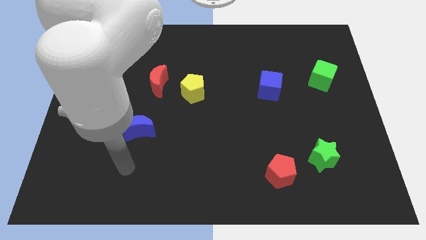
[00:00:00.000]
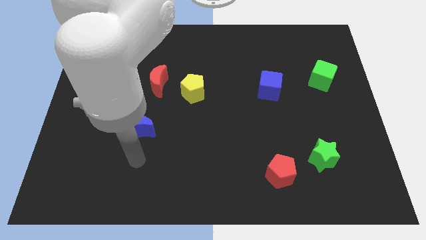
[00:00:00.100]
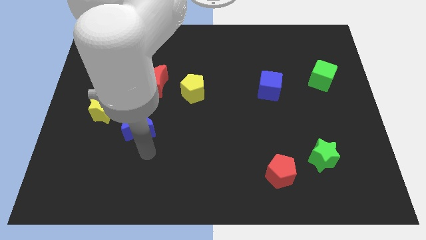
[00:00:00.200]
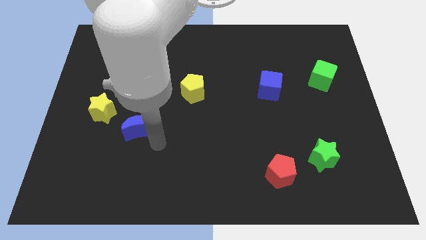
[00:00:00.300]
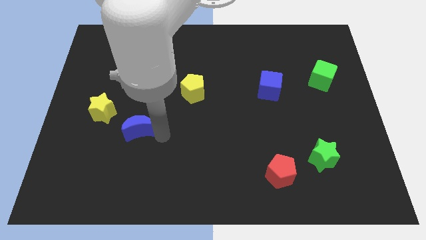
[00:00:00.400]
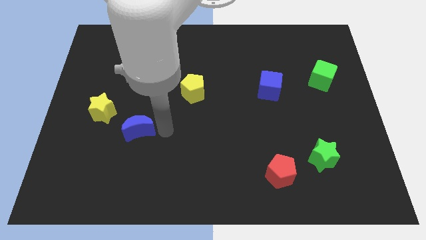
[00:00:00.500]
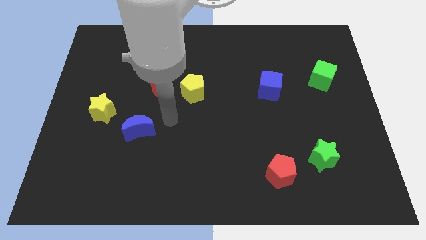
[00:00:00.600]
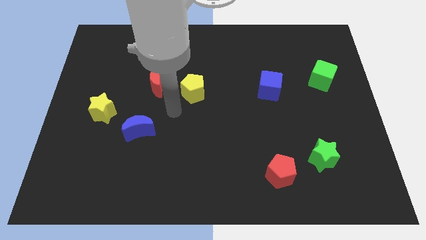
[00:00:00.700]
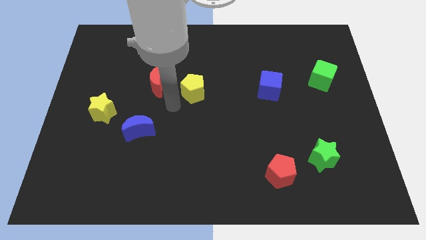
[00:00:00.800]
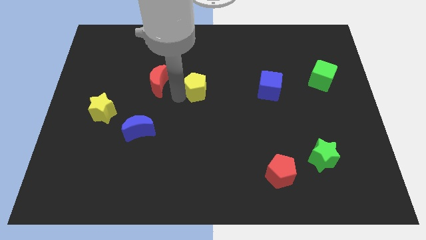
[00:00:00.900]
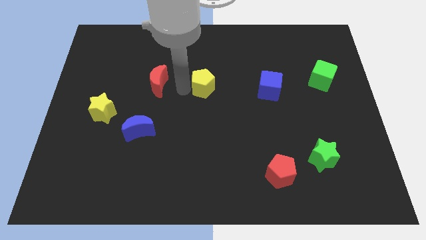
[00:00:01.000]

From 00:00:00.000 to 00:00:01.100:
move the red moon away from the yellow pentagon

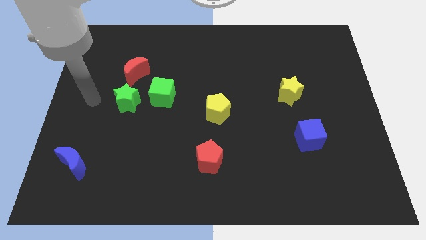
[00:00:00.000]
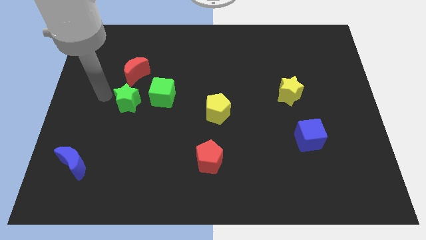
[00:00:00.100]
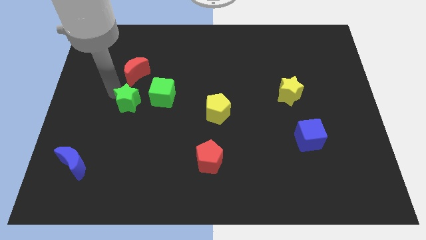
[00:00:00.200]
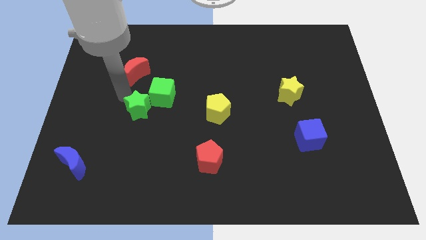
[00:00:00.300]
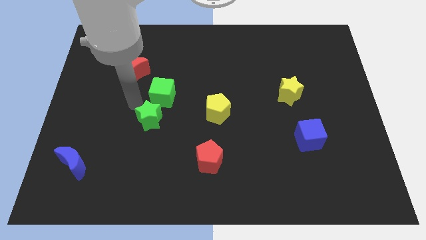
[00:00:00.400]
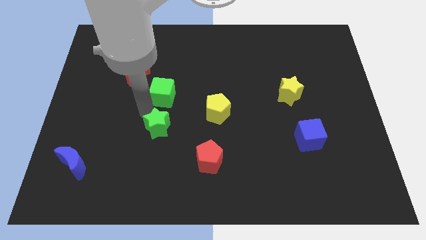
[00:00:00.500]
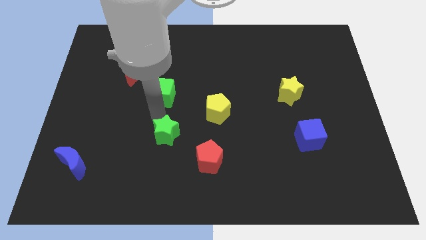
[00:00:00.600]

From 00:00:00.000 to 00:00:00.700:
move the green cube away from the green star

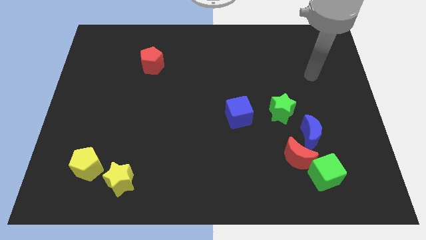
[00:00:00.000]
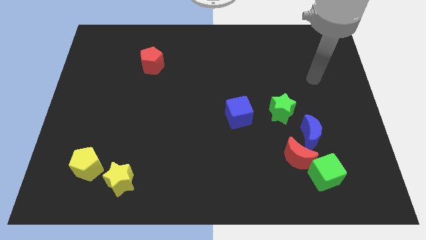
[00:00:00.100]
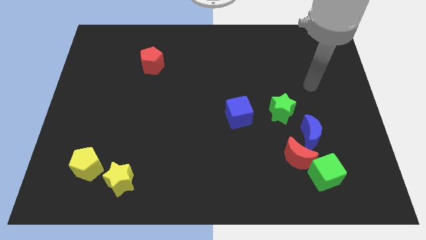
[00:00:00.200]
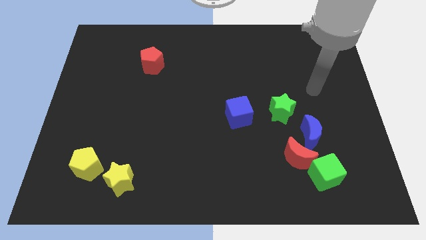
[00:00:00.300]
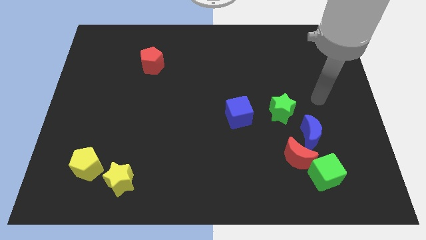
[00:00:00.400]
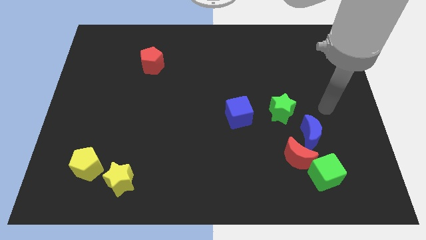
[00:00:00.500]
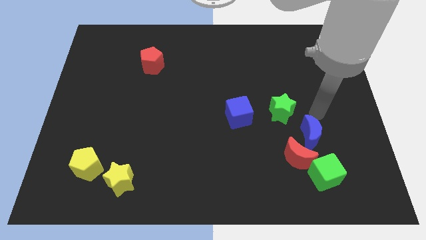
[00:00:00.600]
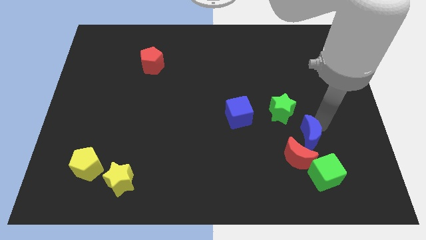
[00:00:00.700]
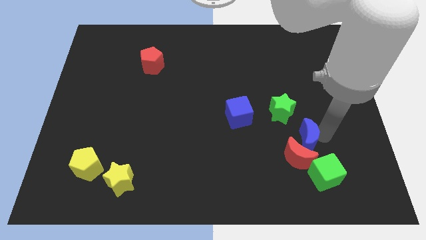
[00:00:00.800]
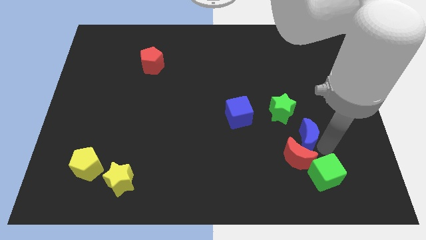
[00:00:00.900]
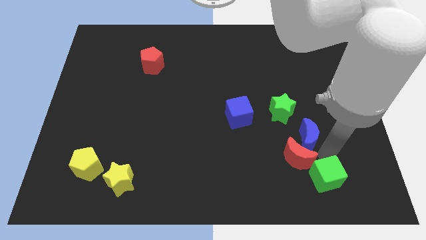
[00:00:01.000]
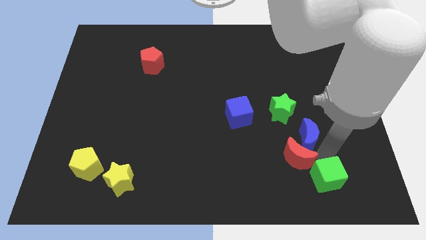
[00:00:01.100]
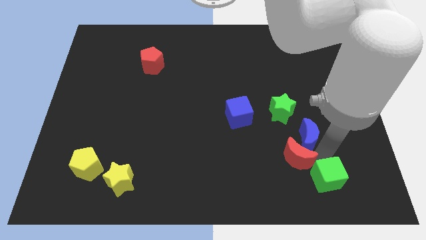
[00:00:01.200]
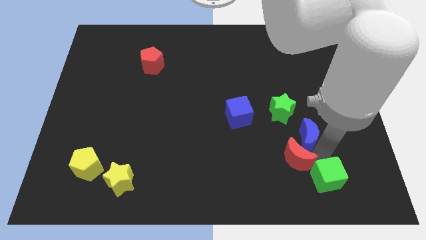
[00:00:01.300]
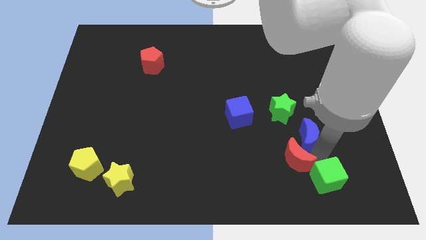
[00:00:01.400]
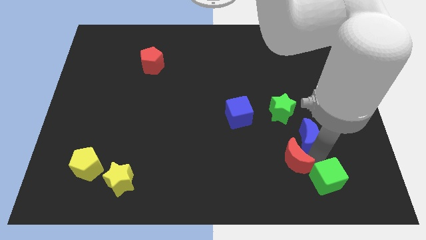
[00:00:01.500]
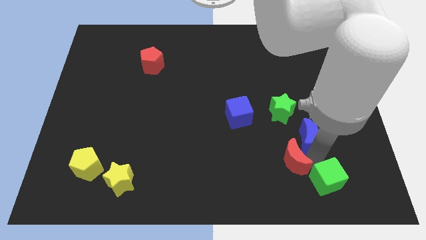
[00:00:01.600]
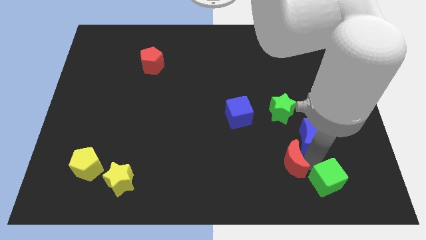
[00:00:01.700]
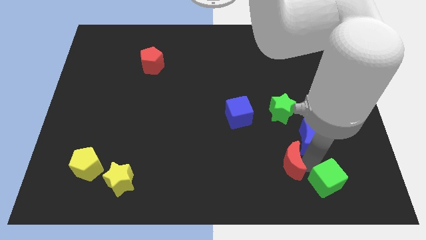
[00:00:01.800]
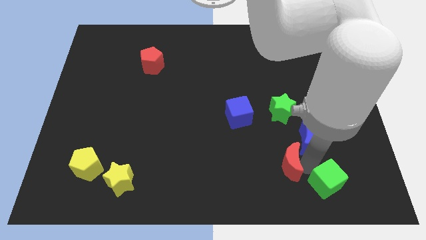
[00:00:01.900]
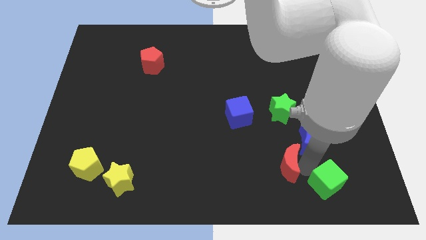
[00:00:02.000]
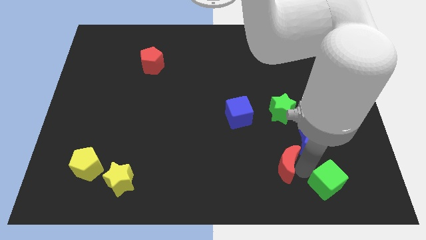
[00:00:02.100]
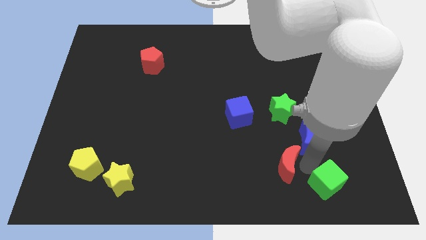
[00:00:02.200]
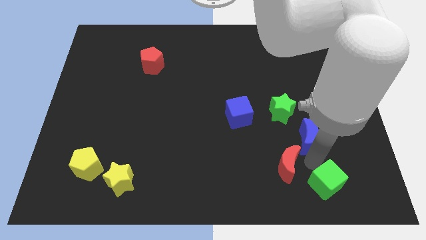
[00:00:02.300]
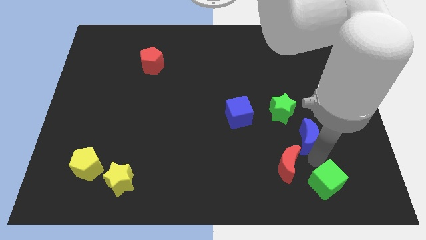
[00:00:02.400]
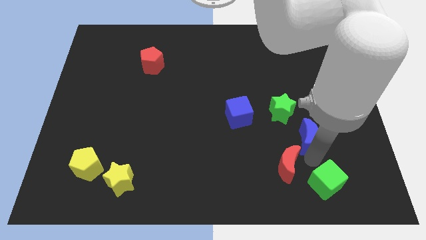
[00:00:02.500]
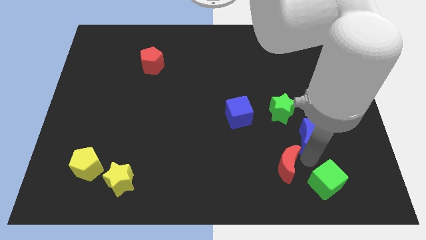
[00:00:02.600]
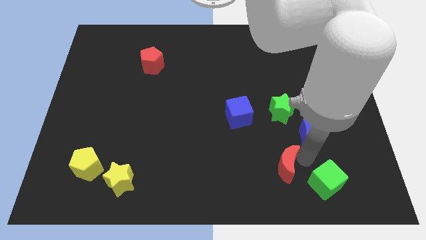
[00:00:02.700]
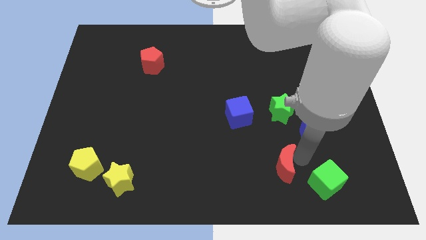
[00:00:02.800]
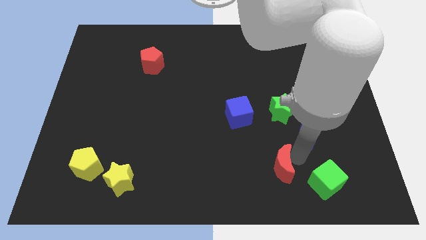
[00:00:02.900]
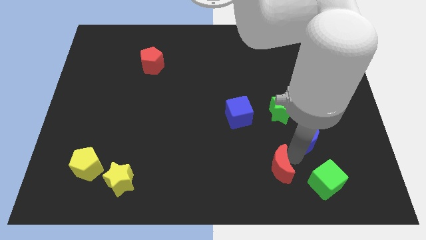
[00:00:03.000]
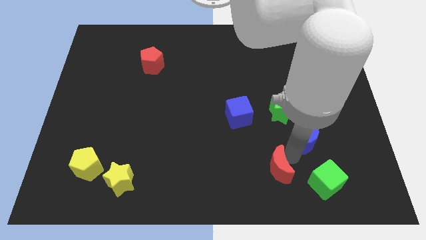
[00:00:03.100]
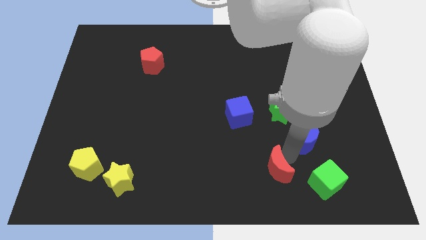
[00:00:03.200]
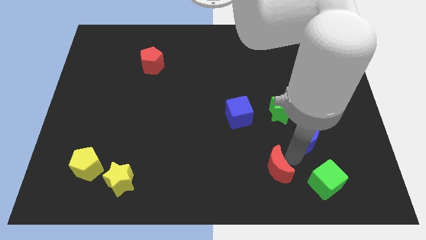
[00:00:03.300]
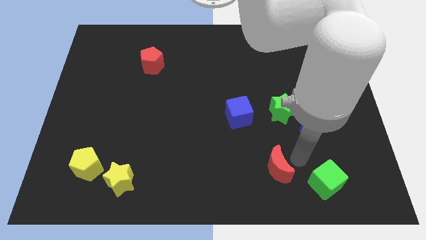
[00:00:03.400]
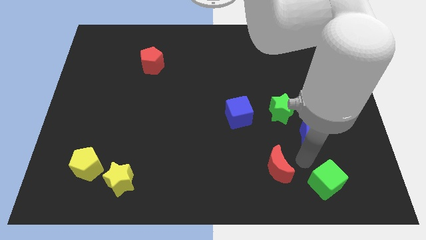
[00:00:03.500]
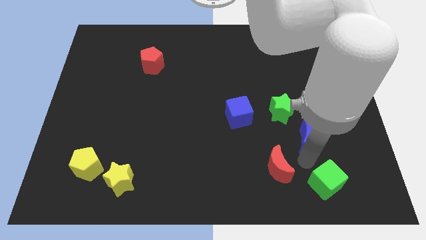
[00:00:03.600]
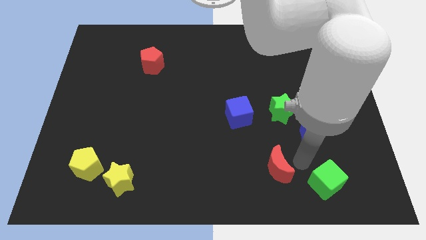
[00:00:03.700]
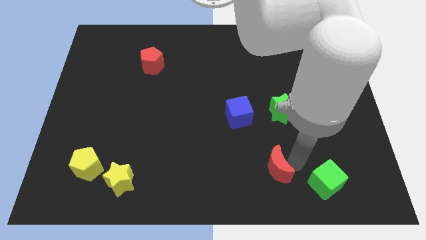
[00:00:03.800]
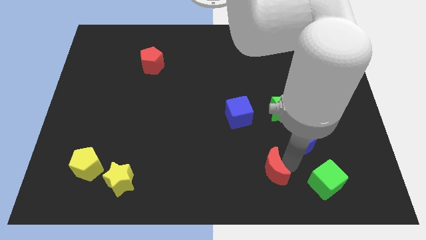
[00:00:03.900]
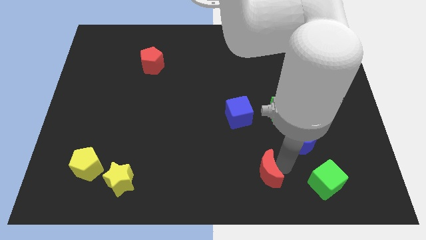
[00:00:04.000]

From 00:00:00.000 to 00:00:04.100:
pull the red moon apart from the green cube and blue moon

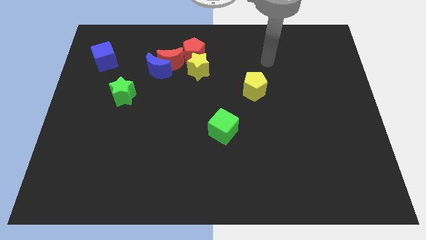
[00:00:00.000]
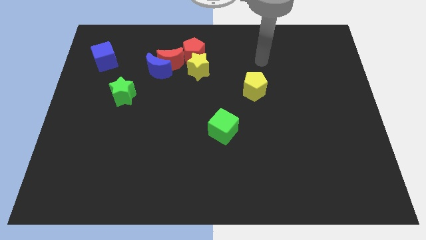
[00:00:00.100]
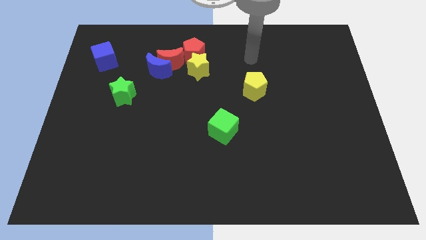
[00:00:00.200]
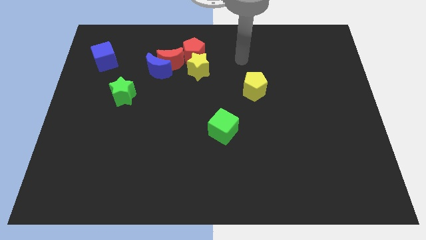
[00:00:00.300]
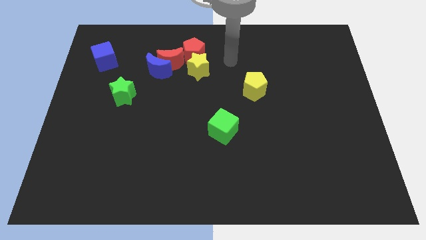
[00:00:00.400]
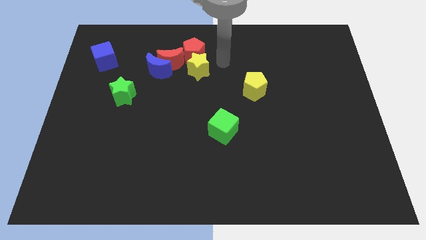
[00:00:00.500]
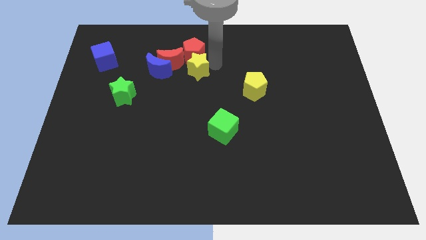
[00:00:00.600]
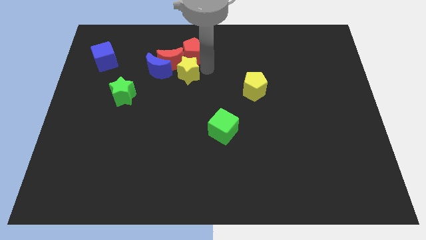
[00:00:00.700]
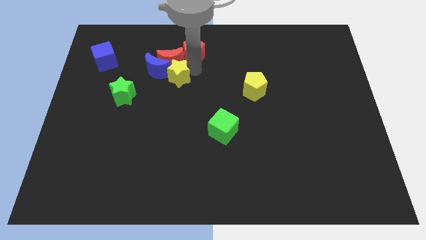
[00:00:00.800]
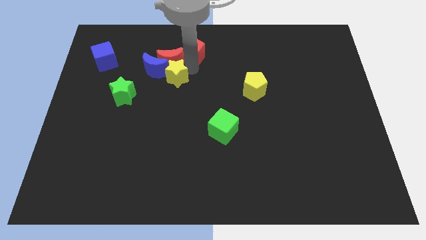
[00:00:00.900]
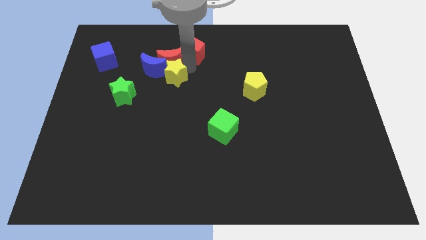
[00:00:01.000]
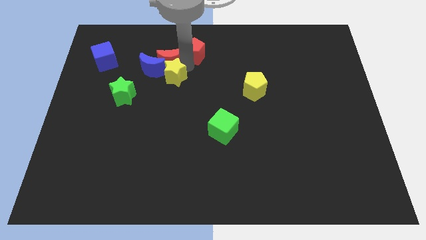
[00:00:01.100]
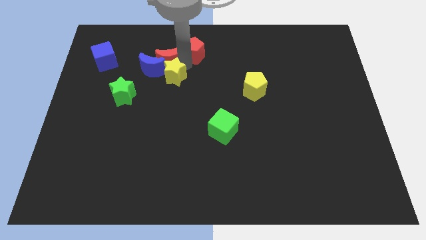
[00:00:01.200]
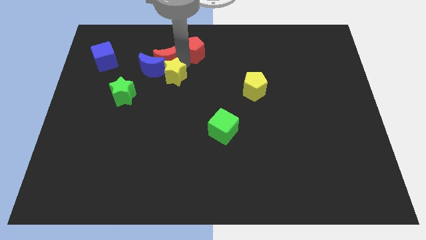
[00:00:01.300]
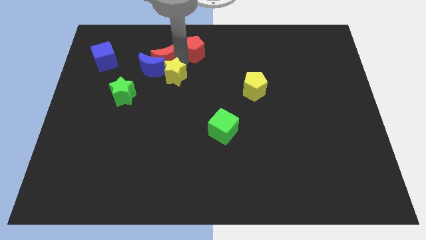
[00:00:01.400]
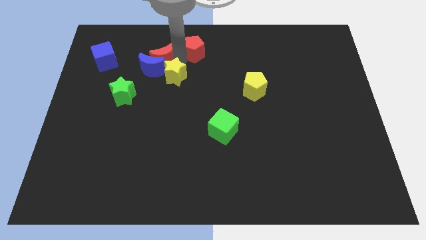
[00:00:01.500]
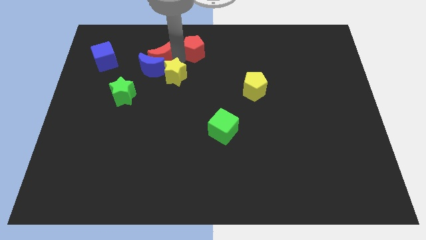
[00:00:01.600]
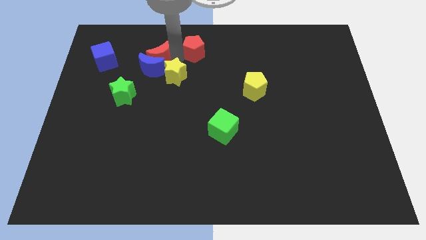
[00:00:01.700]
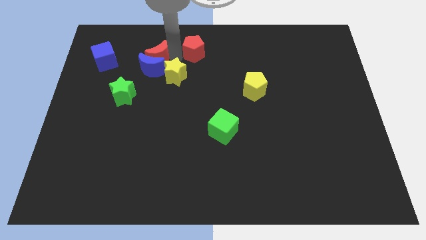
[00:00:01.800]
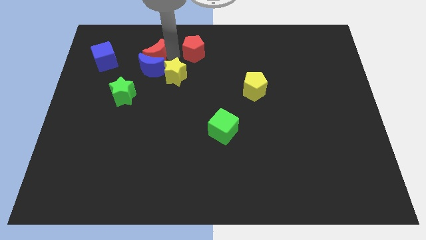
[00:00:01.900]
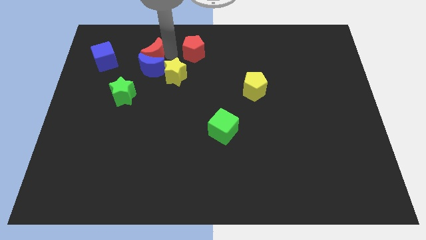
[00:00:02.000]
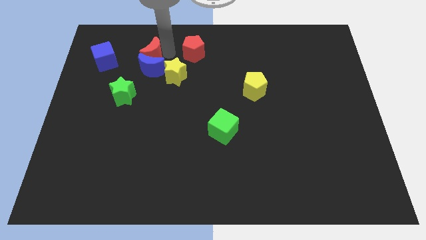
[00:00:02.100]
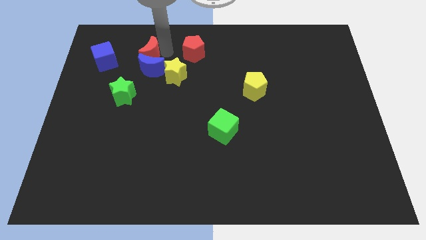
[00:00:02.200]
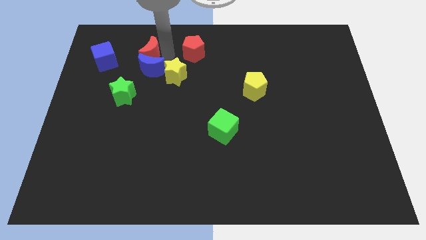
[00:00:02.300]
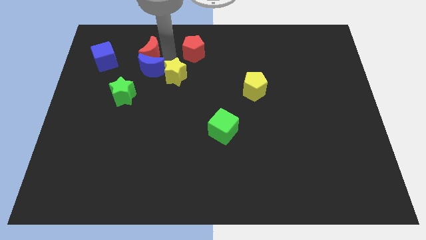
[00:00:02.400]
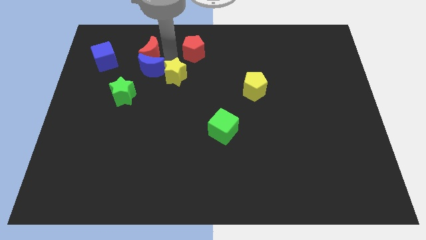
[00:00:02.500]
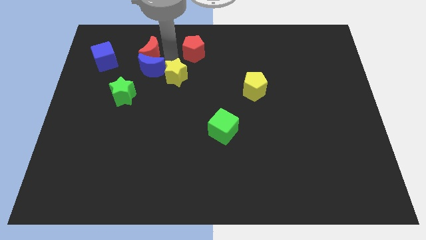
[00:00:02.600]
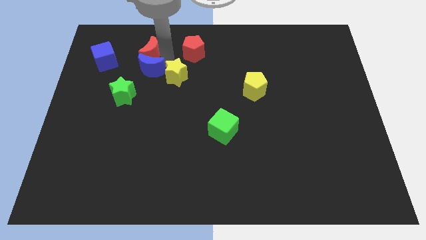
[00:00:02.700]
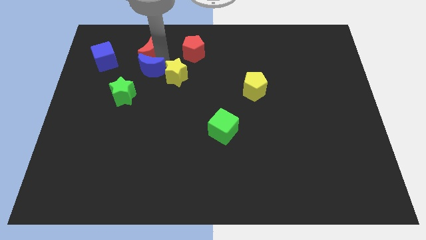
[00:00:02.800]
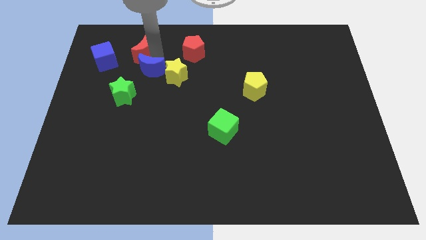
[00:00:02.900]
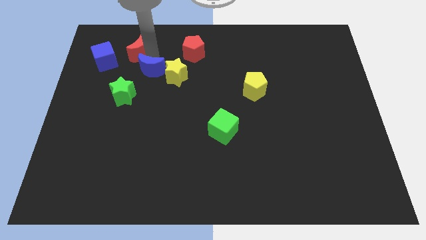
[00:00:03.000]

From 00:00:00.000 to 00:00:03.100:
move the red moon away from the blue moon, red pentagon, and yellow star

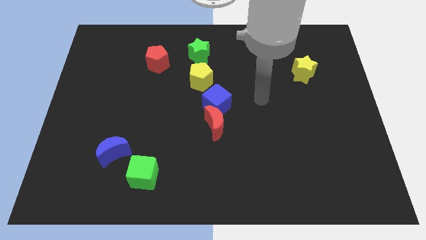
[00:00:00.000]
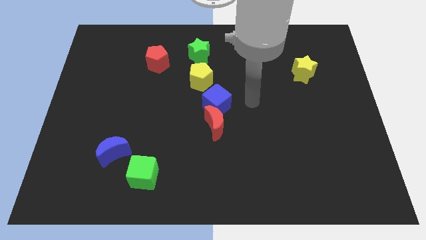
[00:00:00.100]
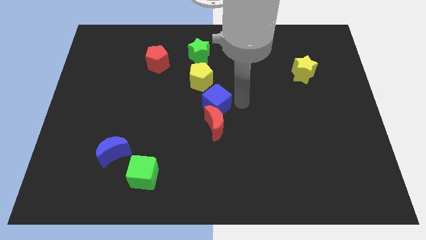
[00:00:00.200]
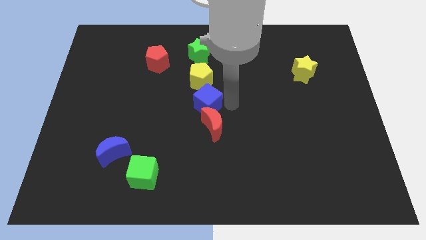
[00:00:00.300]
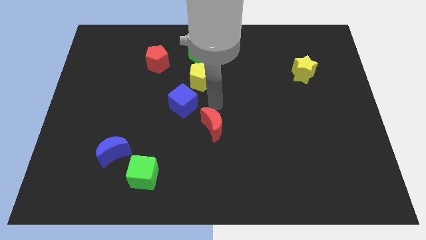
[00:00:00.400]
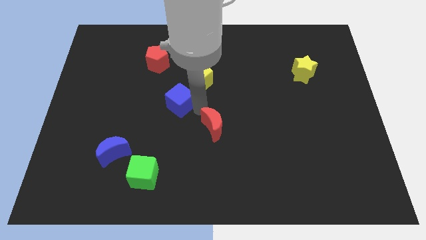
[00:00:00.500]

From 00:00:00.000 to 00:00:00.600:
separate the red moon from the blue cube
